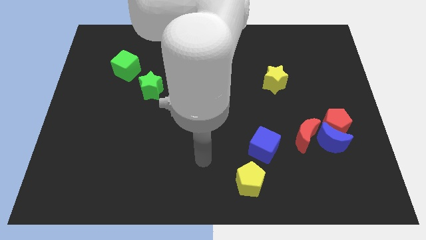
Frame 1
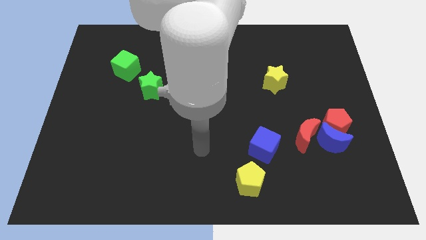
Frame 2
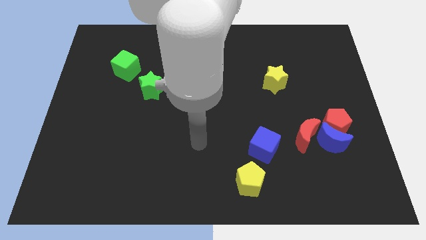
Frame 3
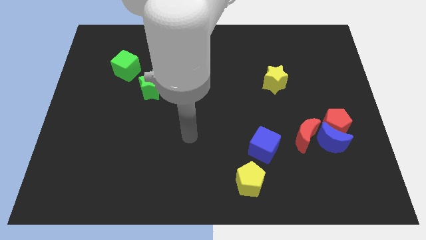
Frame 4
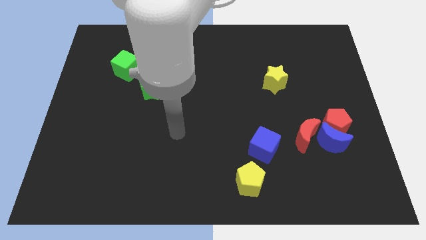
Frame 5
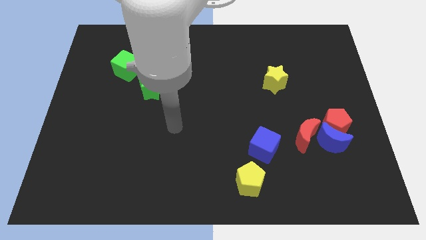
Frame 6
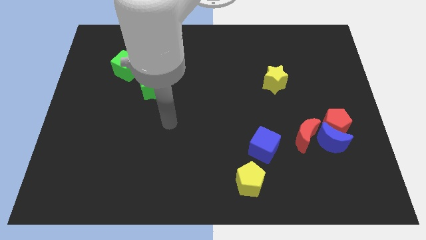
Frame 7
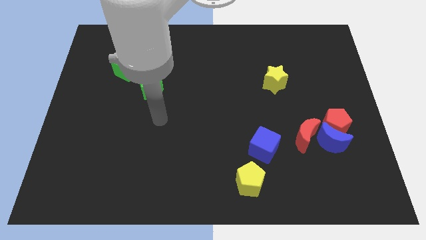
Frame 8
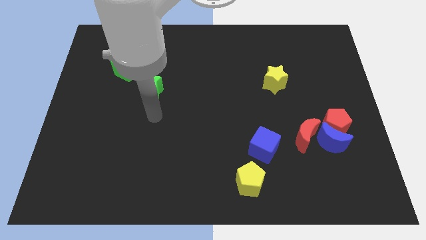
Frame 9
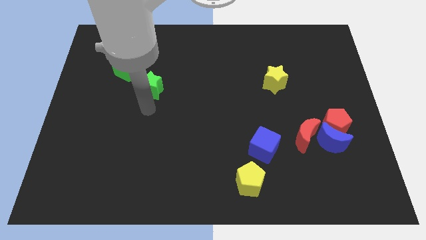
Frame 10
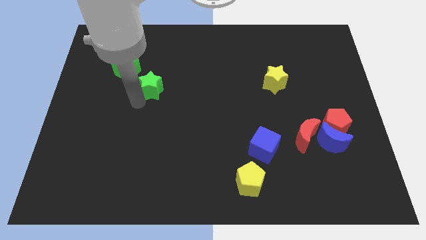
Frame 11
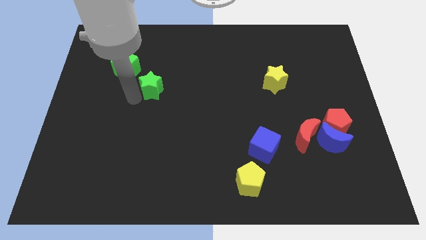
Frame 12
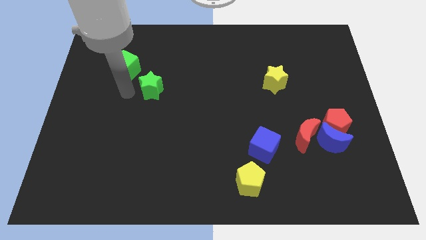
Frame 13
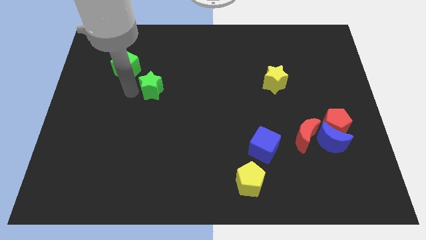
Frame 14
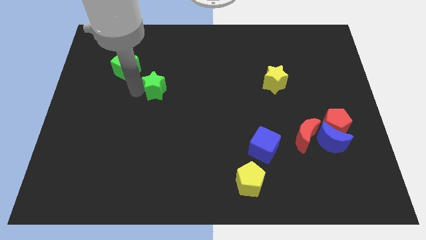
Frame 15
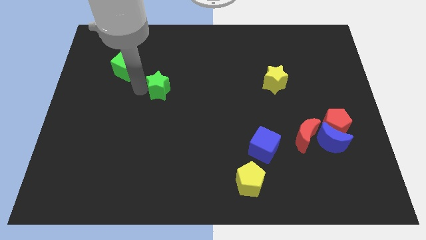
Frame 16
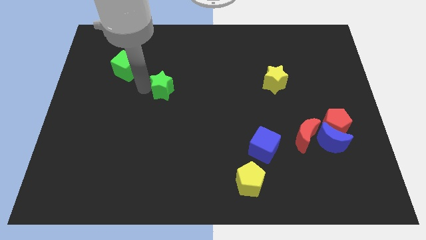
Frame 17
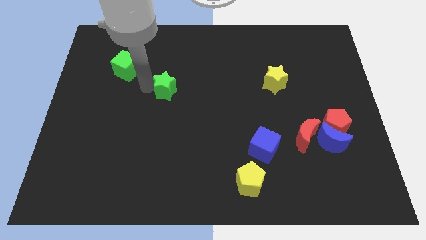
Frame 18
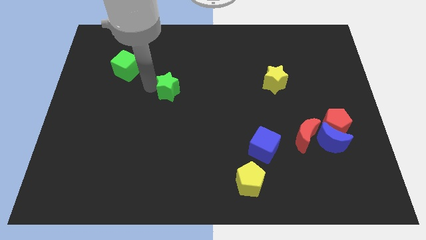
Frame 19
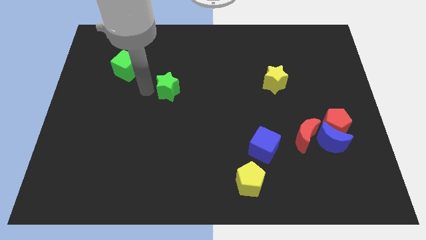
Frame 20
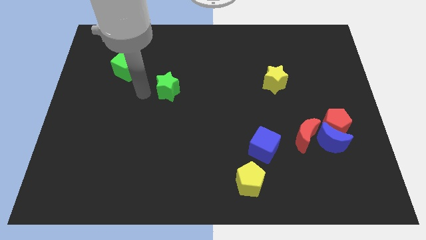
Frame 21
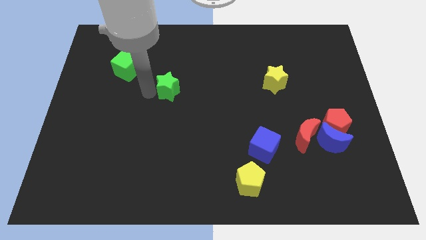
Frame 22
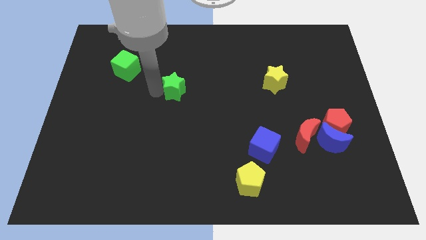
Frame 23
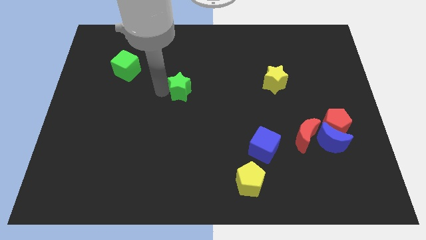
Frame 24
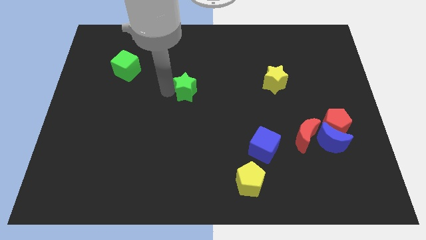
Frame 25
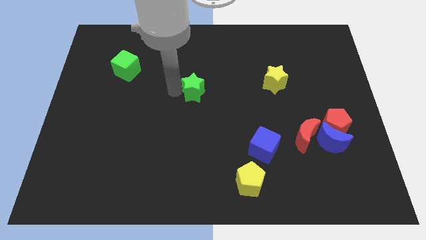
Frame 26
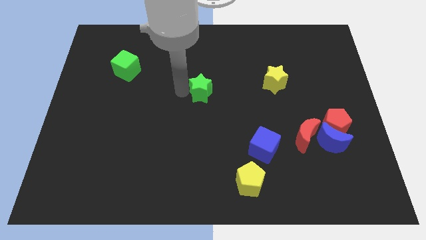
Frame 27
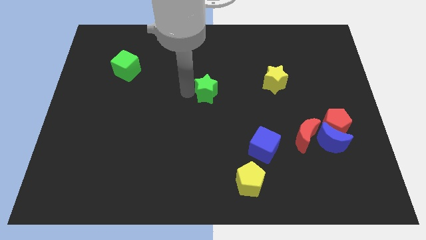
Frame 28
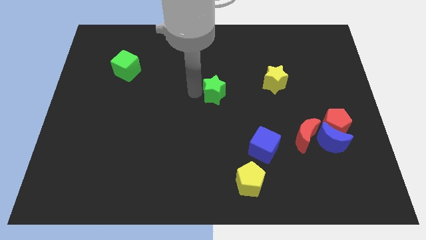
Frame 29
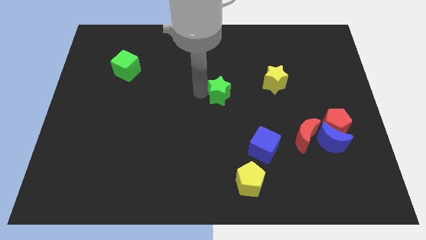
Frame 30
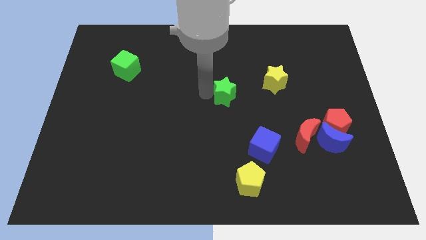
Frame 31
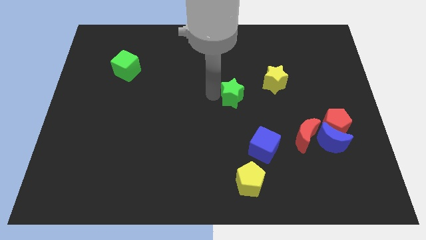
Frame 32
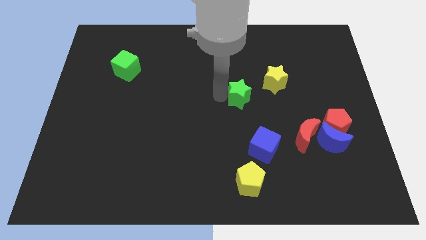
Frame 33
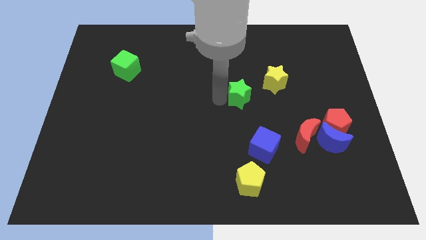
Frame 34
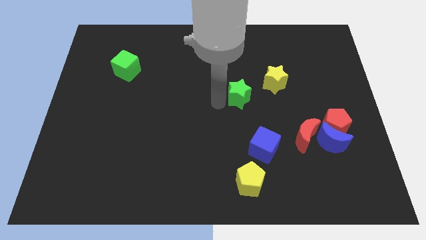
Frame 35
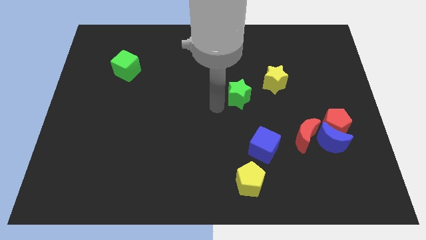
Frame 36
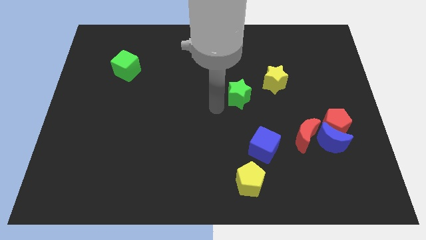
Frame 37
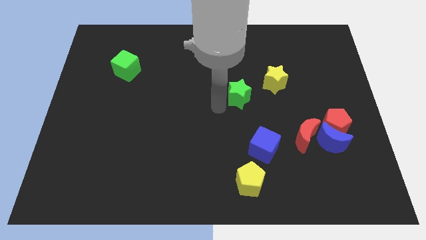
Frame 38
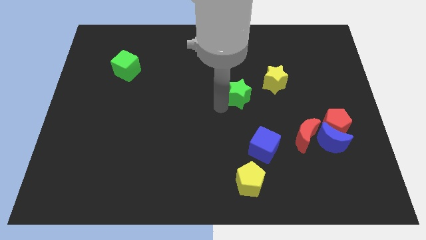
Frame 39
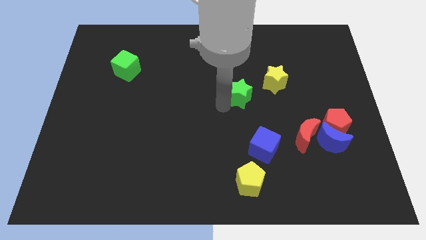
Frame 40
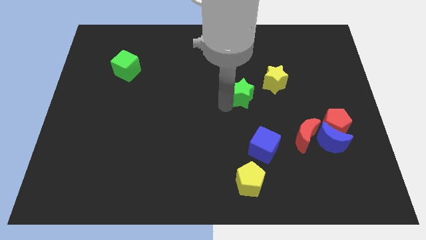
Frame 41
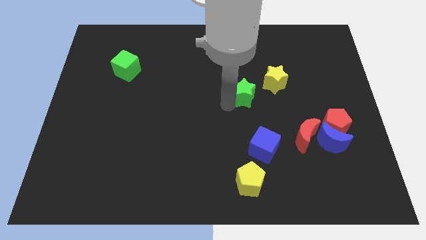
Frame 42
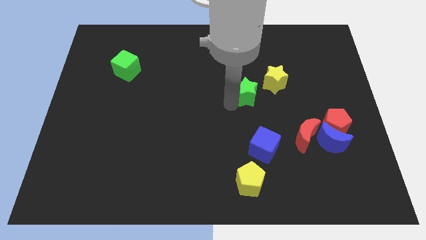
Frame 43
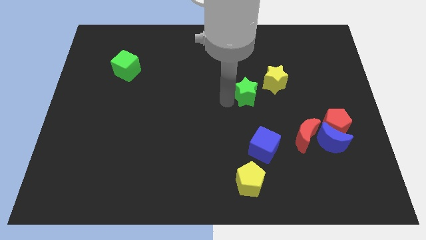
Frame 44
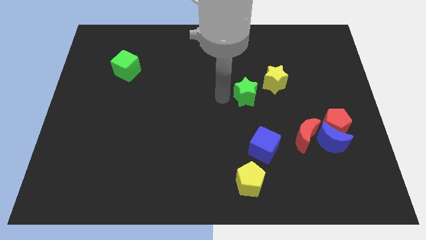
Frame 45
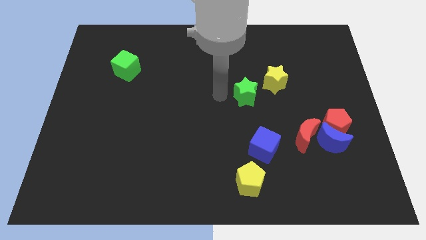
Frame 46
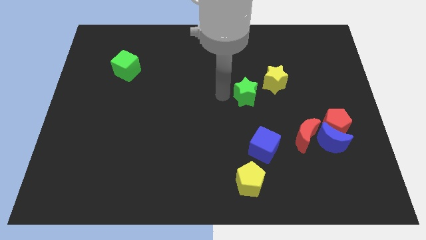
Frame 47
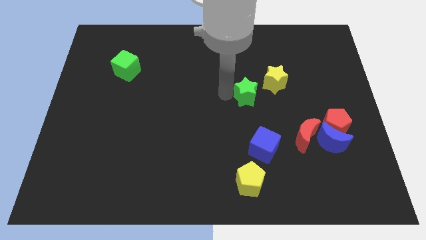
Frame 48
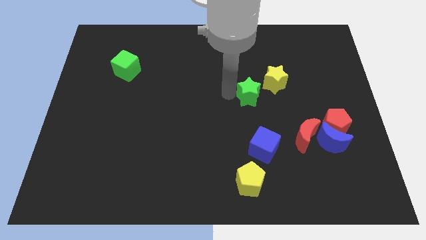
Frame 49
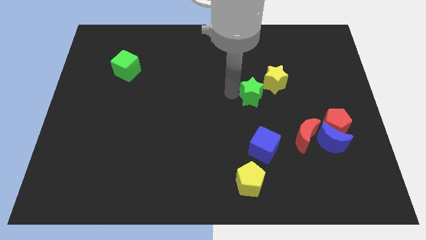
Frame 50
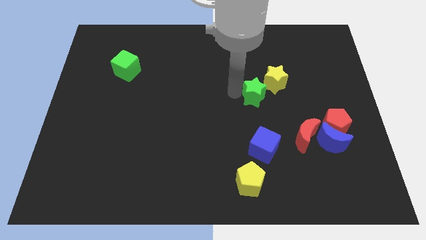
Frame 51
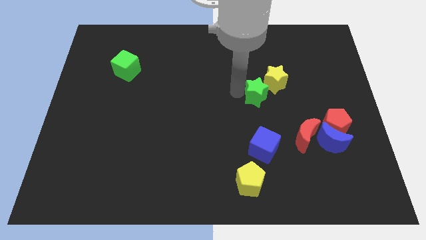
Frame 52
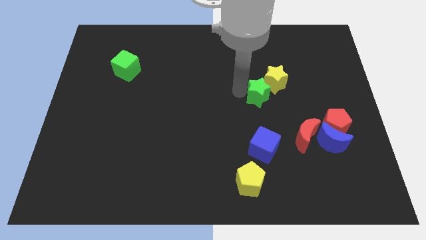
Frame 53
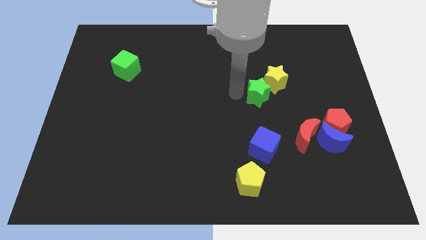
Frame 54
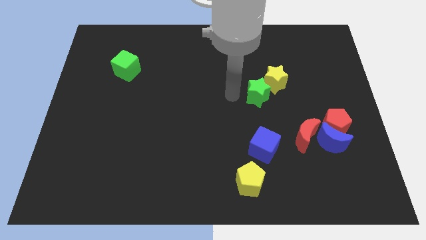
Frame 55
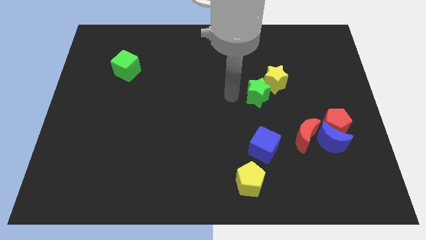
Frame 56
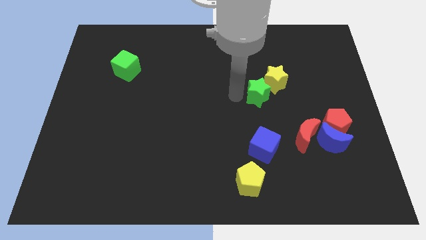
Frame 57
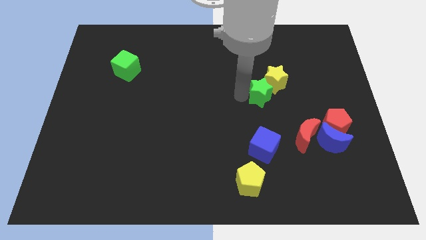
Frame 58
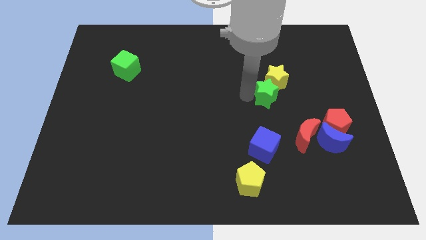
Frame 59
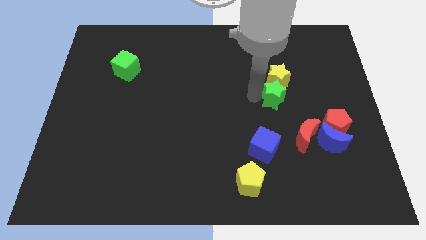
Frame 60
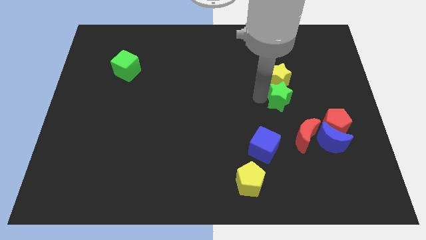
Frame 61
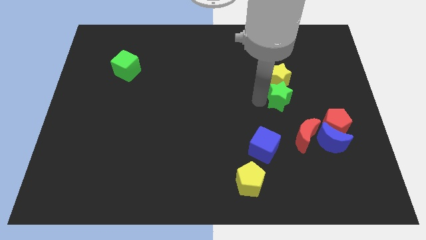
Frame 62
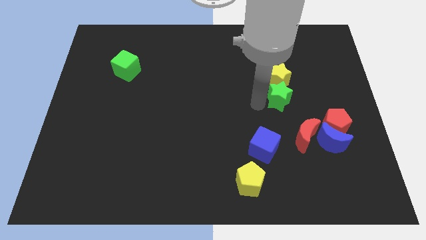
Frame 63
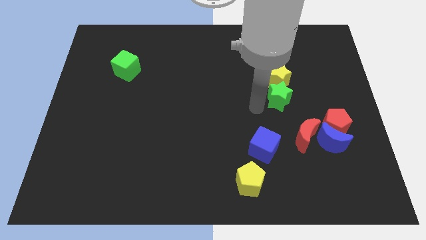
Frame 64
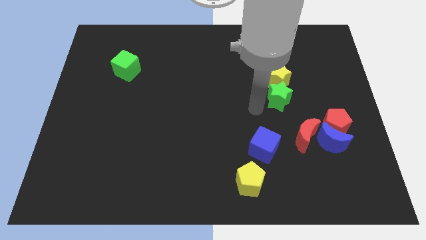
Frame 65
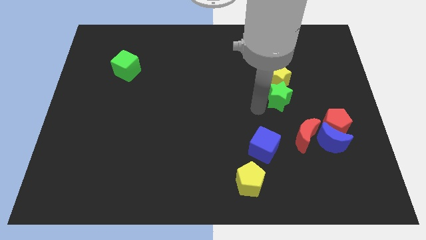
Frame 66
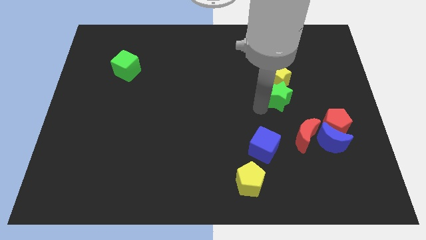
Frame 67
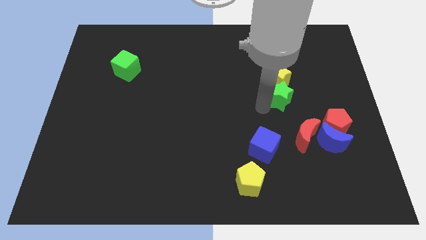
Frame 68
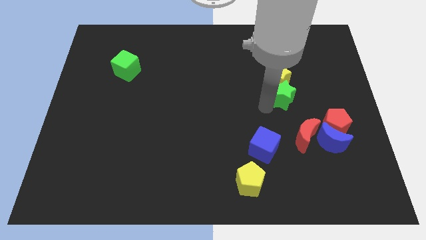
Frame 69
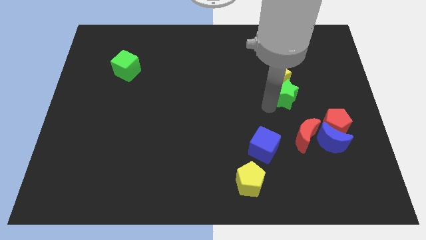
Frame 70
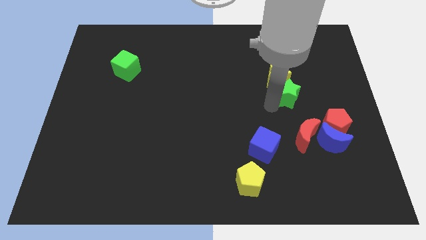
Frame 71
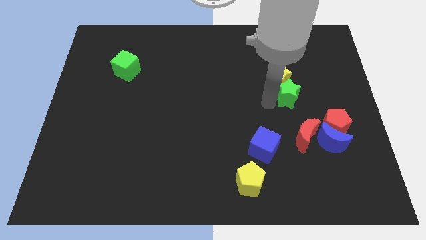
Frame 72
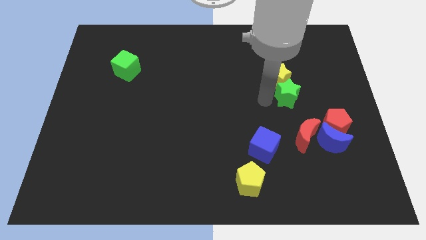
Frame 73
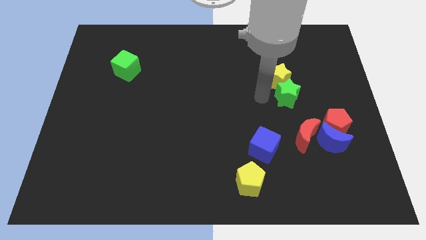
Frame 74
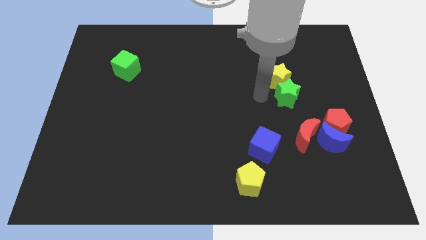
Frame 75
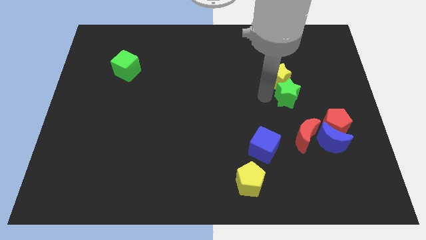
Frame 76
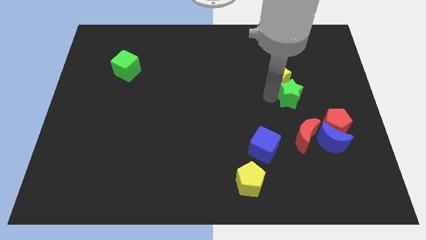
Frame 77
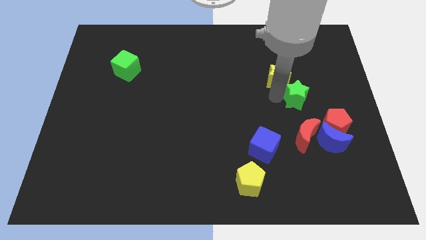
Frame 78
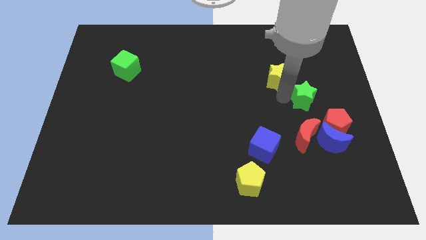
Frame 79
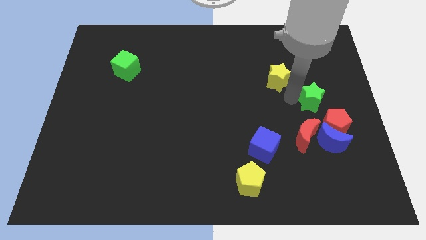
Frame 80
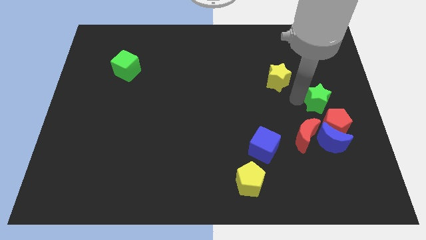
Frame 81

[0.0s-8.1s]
slide the green star to the center right
